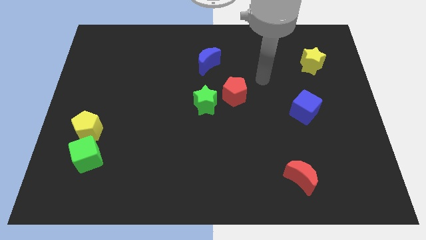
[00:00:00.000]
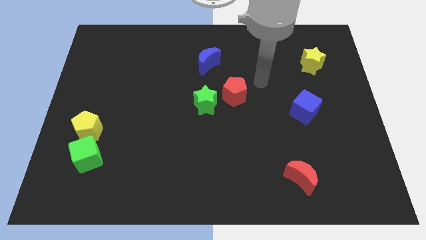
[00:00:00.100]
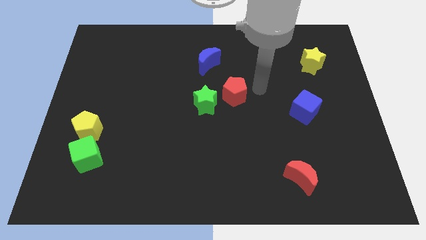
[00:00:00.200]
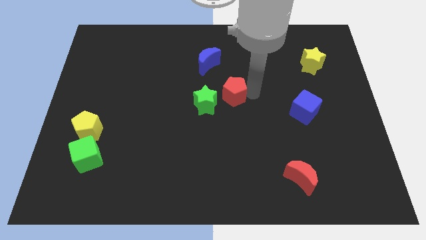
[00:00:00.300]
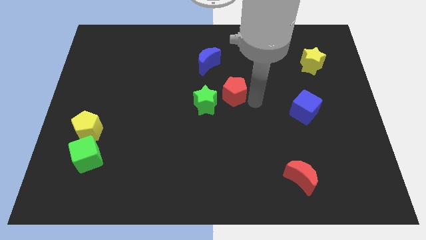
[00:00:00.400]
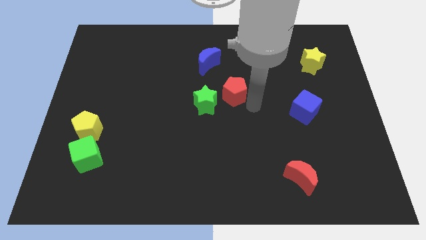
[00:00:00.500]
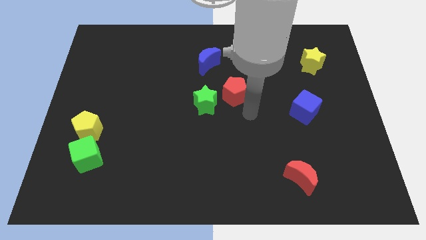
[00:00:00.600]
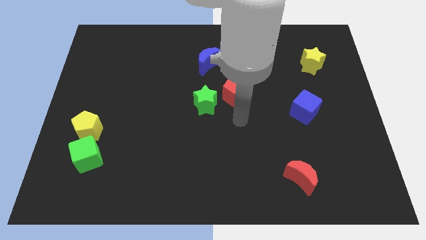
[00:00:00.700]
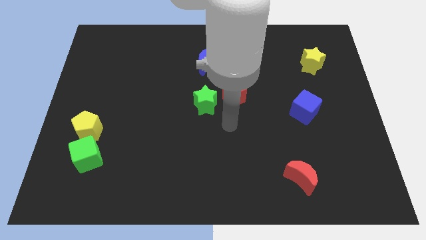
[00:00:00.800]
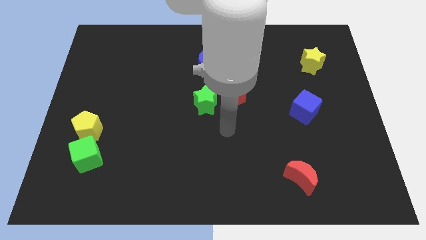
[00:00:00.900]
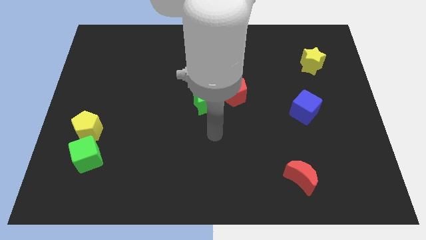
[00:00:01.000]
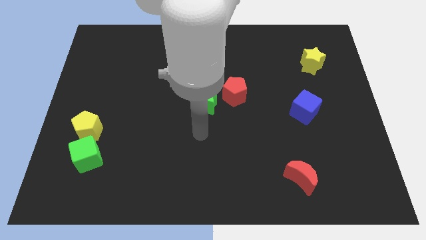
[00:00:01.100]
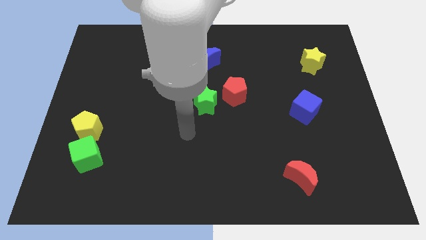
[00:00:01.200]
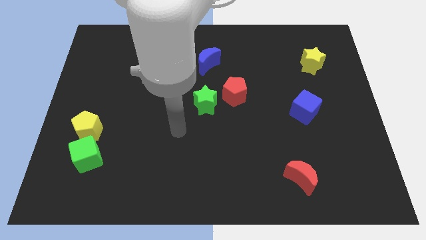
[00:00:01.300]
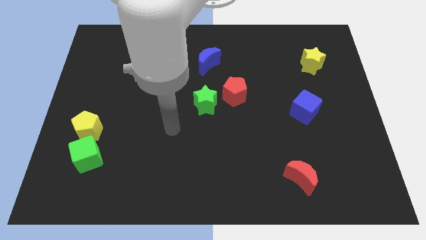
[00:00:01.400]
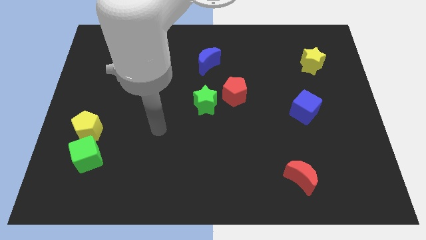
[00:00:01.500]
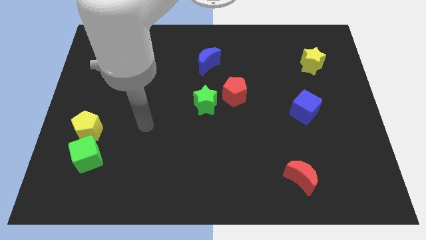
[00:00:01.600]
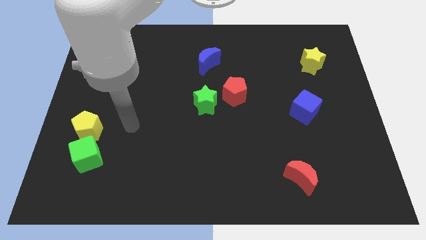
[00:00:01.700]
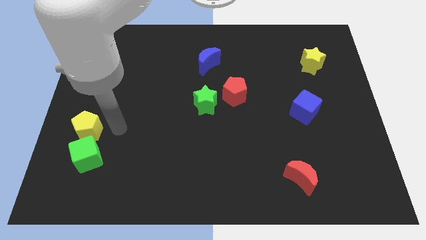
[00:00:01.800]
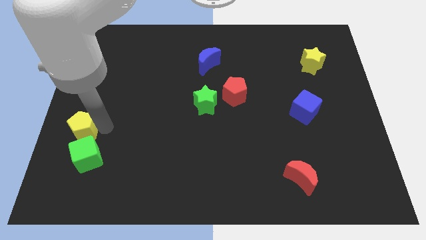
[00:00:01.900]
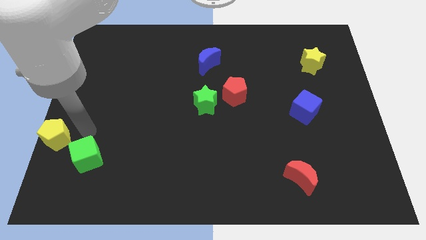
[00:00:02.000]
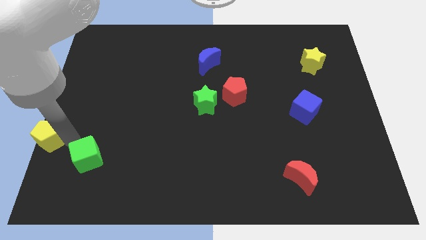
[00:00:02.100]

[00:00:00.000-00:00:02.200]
move the green cube away from the yellow pentagon

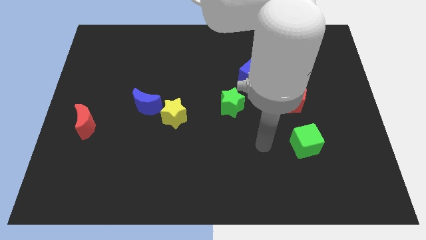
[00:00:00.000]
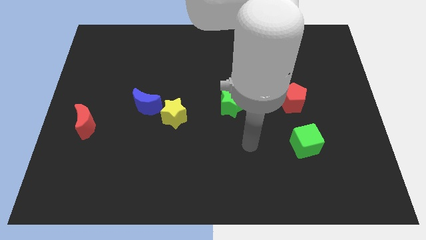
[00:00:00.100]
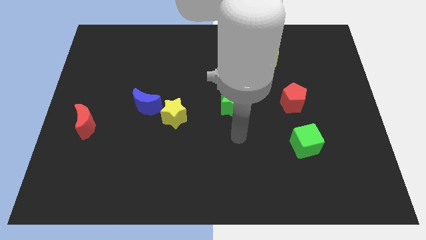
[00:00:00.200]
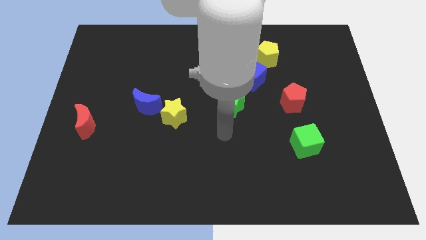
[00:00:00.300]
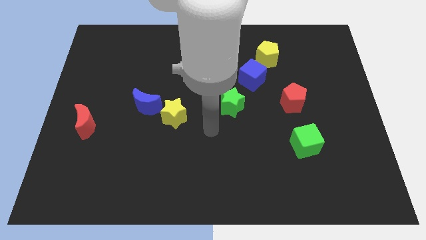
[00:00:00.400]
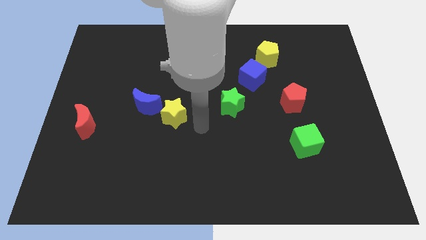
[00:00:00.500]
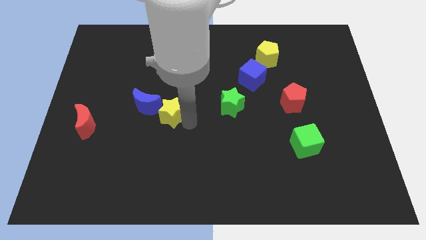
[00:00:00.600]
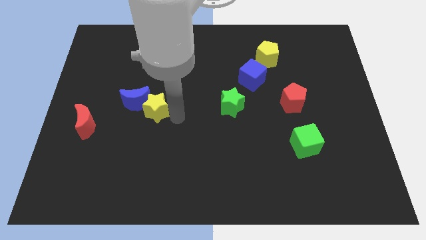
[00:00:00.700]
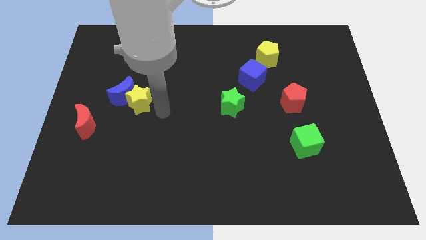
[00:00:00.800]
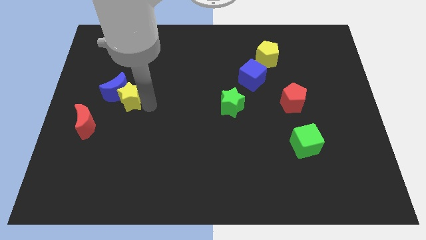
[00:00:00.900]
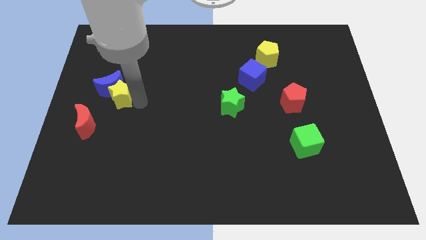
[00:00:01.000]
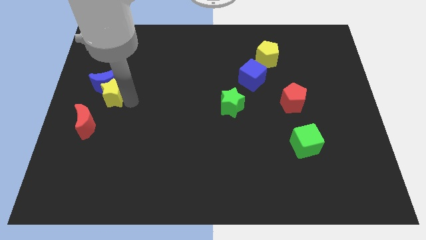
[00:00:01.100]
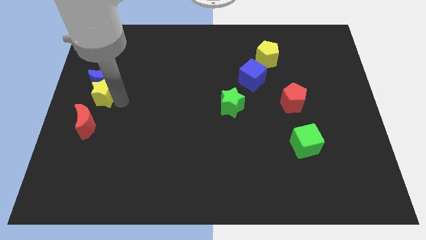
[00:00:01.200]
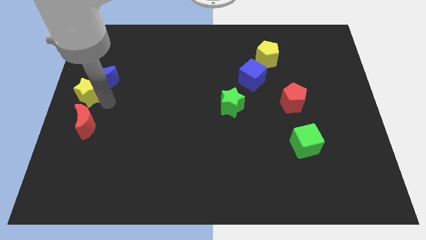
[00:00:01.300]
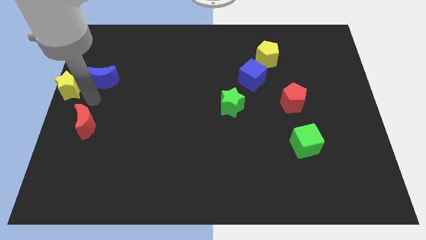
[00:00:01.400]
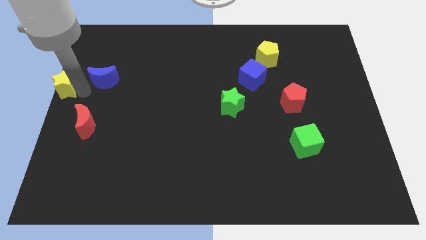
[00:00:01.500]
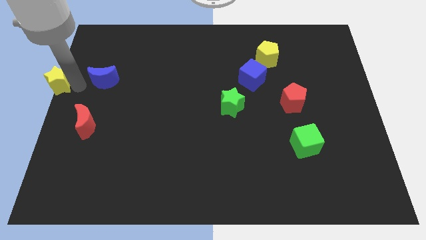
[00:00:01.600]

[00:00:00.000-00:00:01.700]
pull the blue moon apart from the yellow star

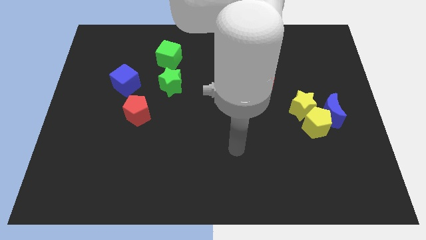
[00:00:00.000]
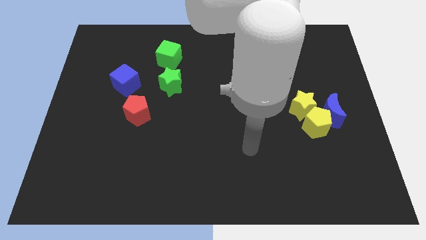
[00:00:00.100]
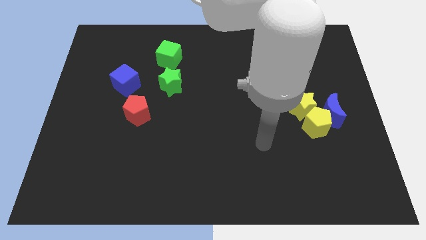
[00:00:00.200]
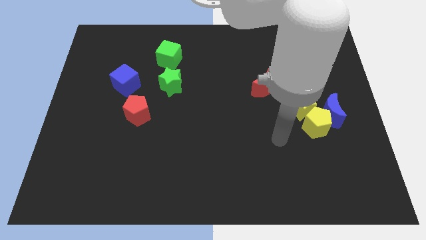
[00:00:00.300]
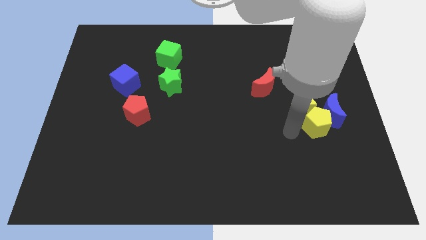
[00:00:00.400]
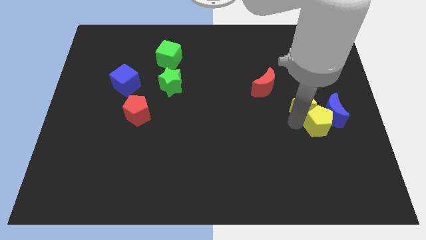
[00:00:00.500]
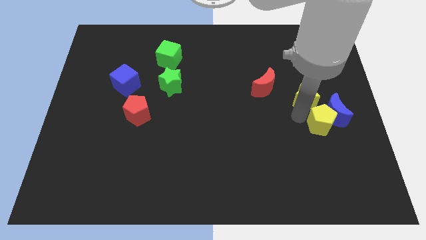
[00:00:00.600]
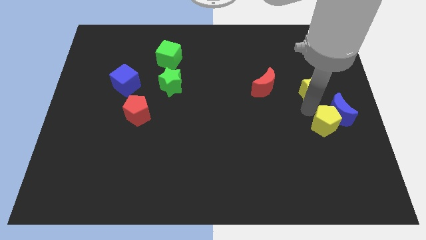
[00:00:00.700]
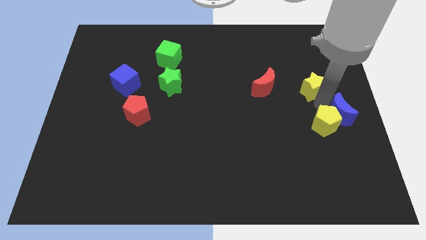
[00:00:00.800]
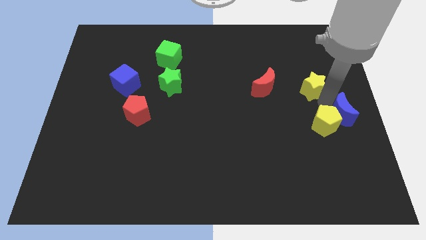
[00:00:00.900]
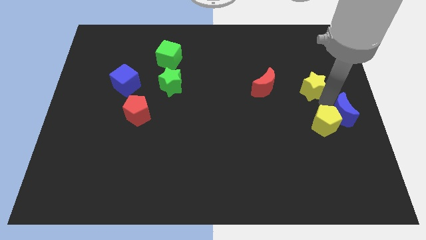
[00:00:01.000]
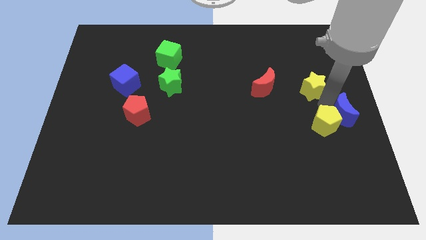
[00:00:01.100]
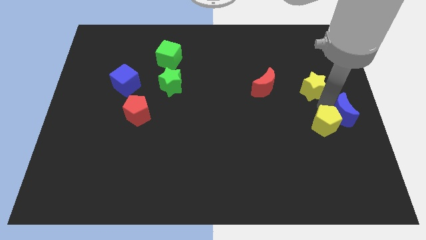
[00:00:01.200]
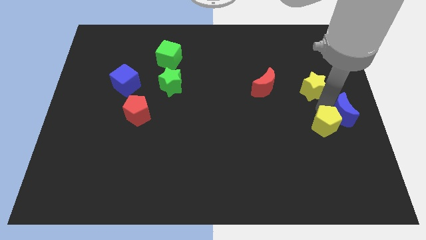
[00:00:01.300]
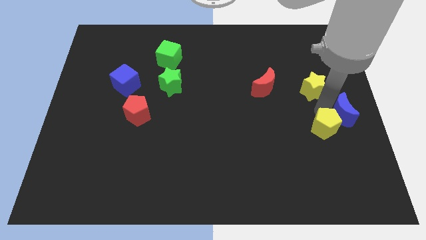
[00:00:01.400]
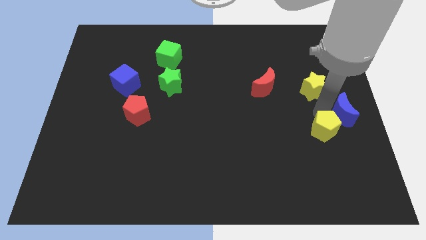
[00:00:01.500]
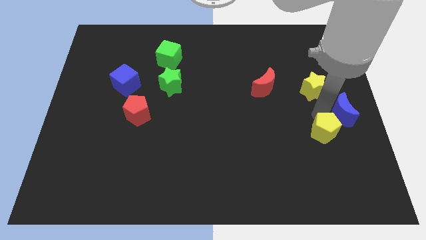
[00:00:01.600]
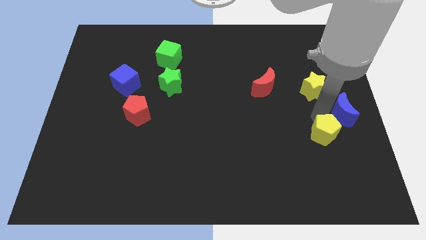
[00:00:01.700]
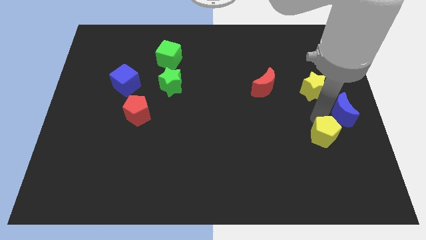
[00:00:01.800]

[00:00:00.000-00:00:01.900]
move the yellow pentagon away from the blue moon and yellow star

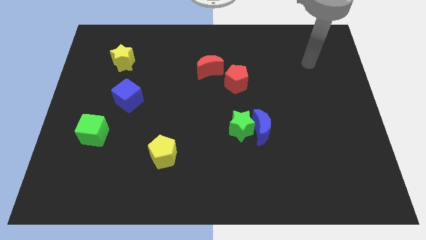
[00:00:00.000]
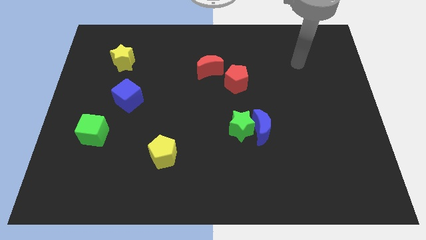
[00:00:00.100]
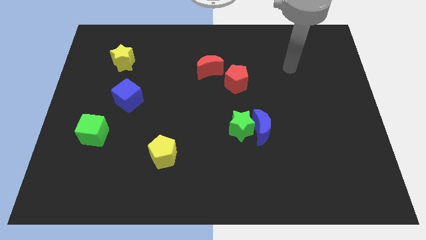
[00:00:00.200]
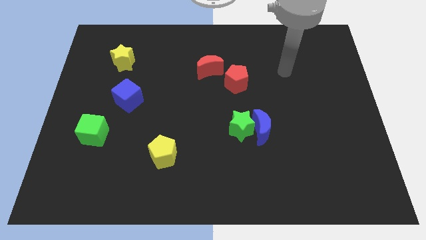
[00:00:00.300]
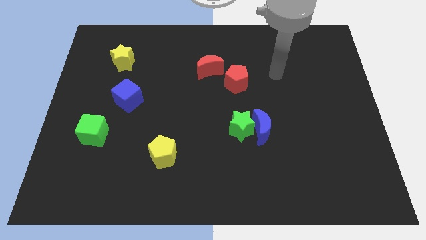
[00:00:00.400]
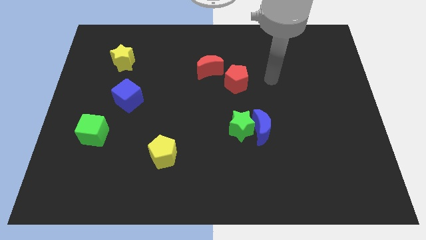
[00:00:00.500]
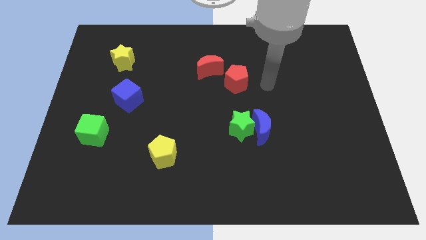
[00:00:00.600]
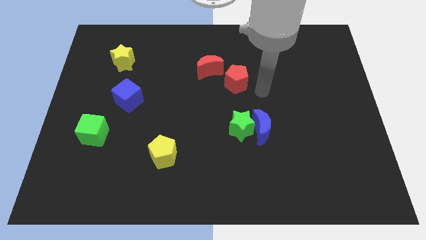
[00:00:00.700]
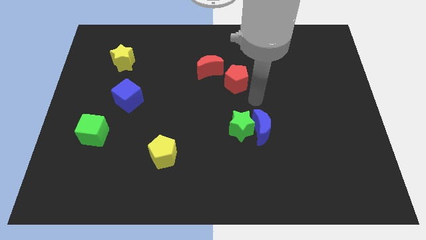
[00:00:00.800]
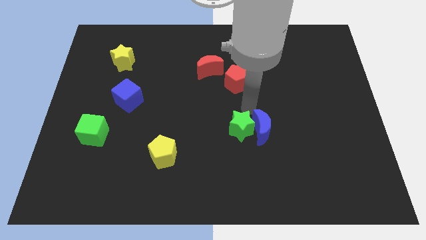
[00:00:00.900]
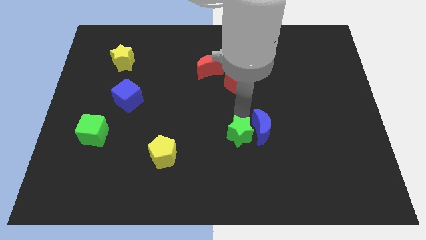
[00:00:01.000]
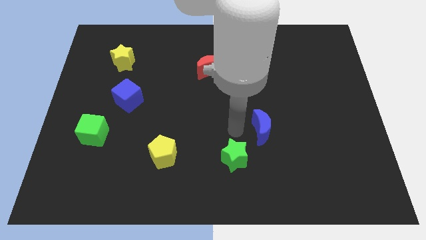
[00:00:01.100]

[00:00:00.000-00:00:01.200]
separate the blue moon from the green star

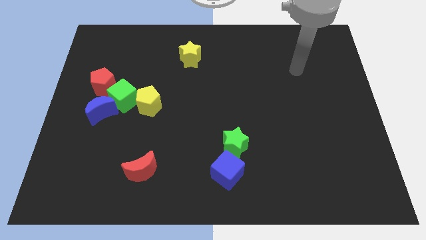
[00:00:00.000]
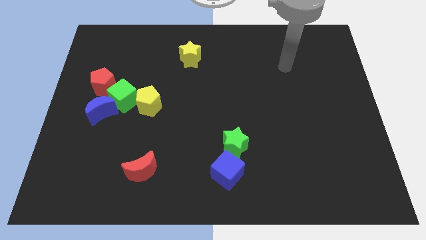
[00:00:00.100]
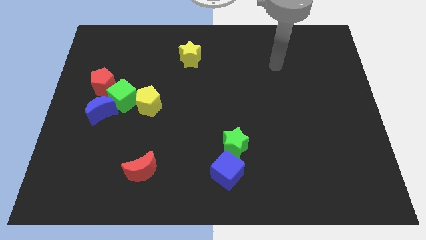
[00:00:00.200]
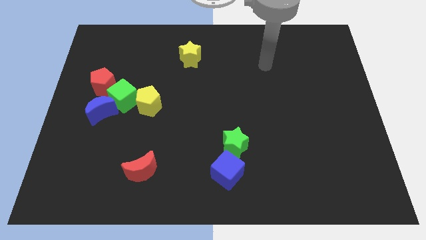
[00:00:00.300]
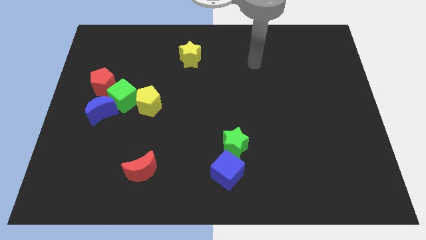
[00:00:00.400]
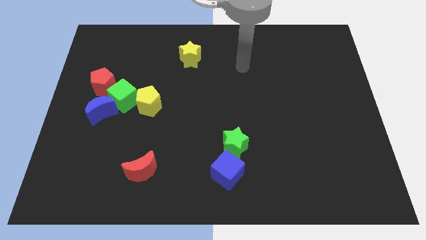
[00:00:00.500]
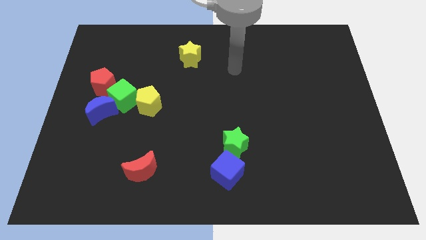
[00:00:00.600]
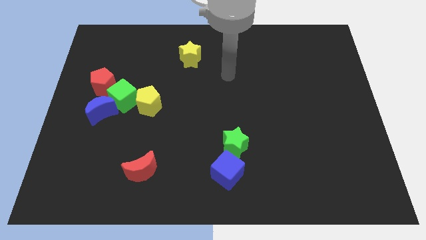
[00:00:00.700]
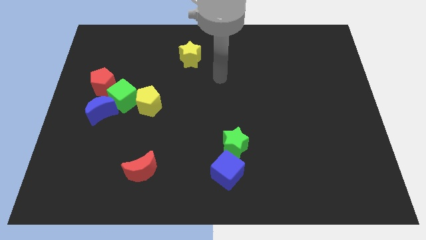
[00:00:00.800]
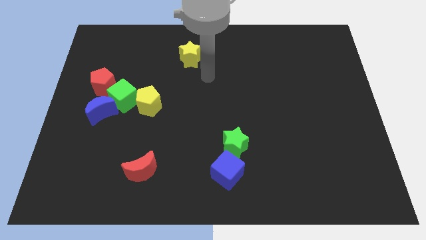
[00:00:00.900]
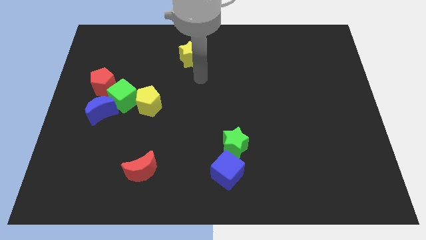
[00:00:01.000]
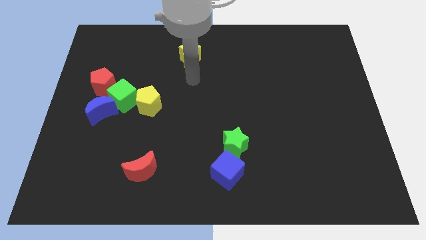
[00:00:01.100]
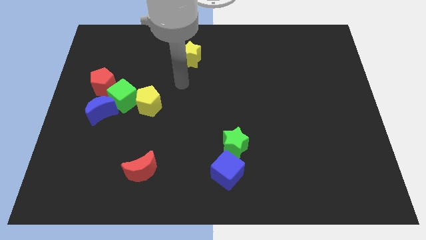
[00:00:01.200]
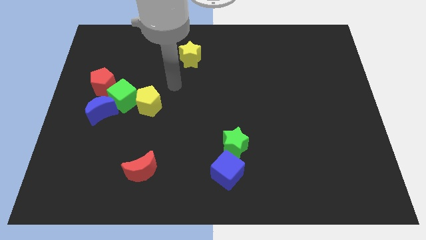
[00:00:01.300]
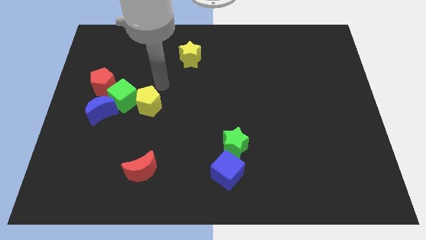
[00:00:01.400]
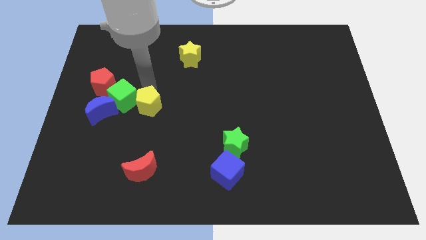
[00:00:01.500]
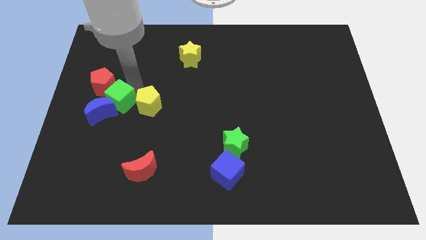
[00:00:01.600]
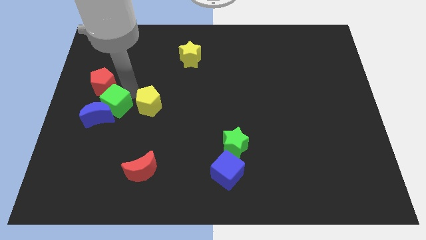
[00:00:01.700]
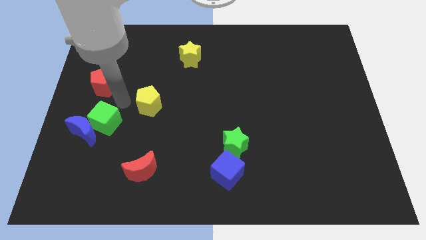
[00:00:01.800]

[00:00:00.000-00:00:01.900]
separate the yellow pentagon from the green cube

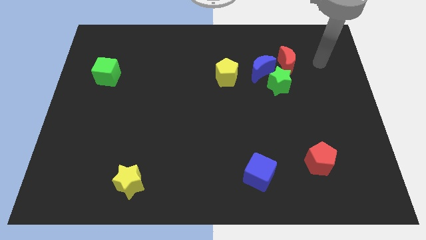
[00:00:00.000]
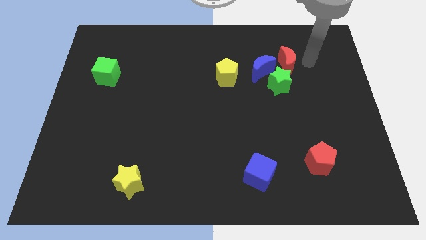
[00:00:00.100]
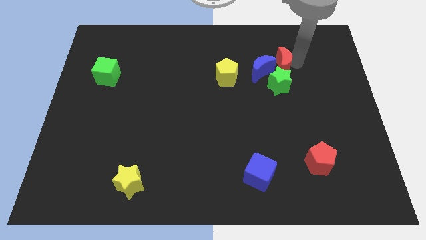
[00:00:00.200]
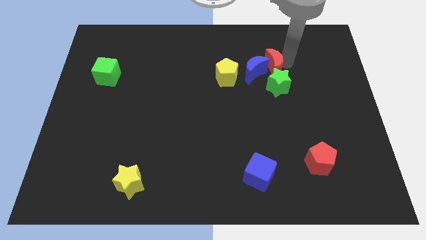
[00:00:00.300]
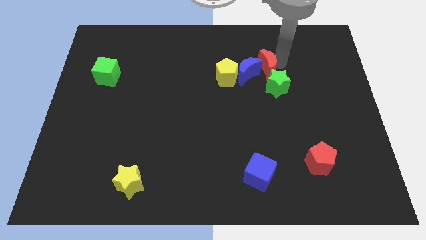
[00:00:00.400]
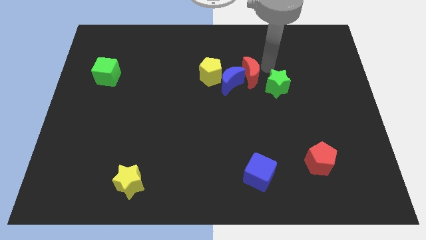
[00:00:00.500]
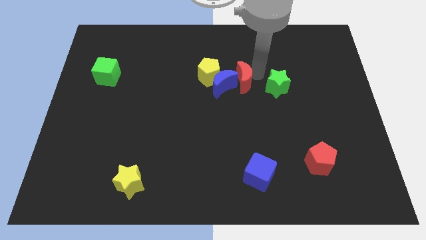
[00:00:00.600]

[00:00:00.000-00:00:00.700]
separate the green star from the blue moon and red moon
